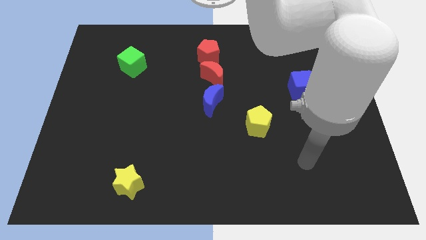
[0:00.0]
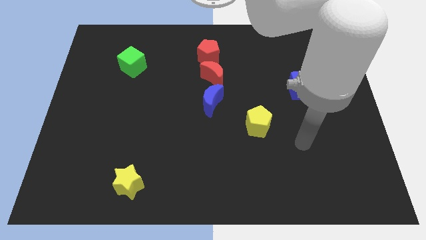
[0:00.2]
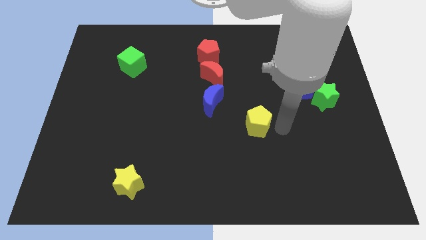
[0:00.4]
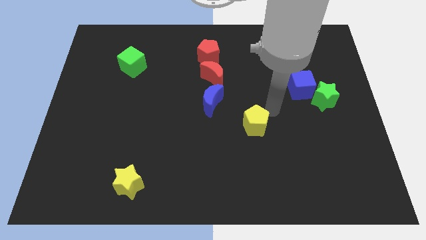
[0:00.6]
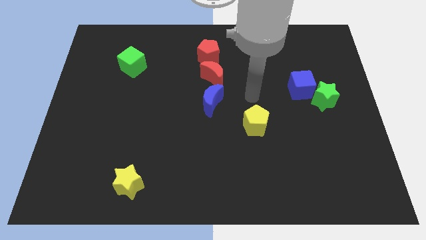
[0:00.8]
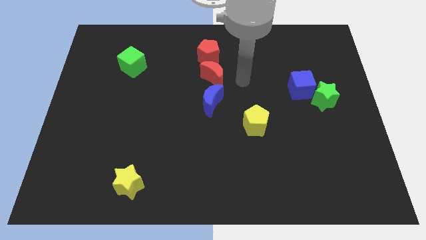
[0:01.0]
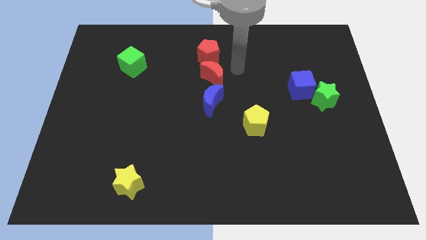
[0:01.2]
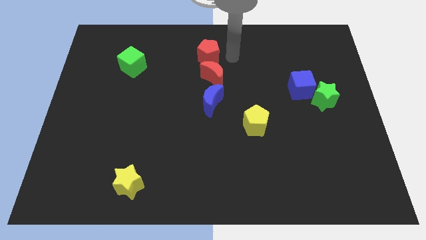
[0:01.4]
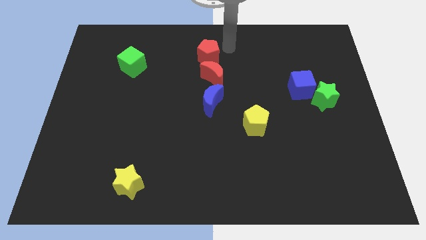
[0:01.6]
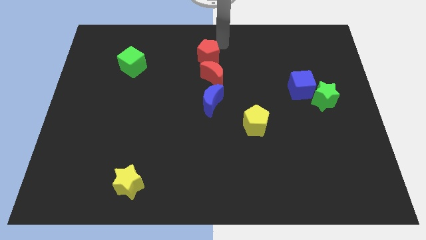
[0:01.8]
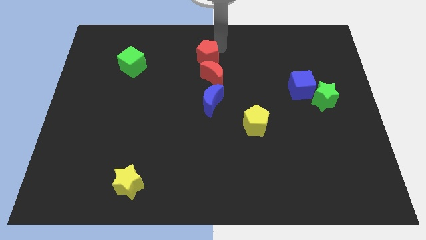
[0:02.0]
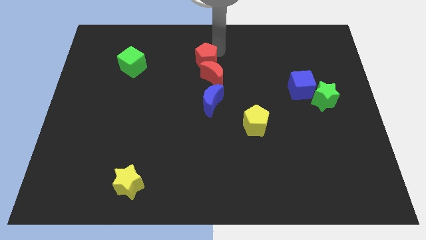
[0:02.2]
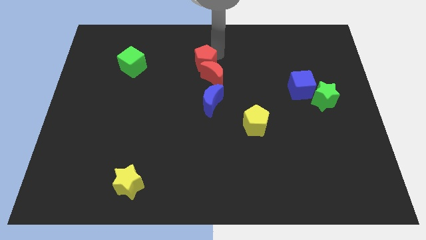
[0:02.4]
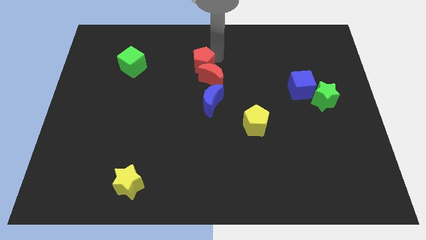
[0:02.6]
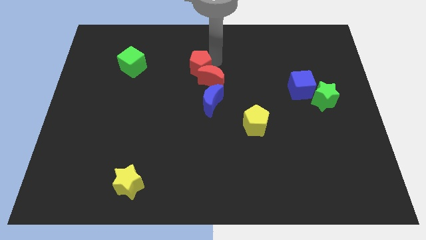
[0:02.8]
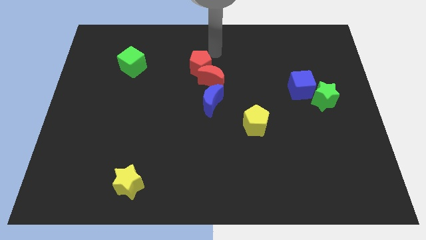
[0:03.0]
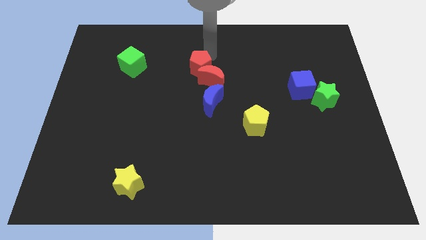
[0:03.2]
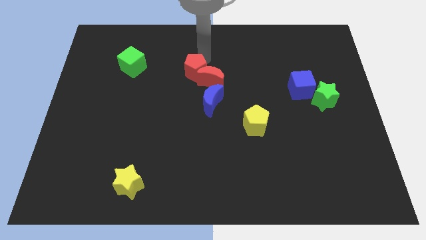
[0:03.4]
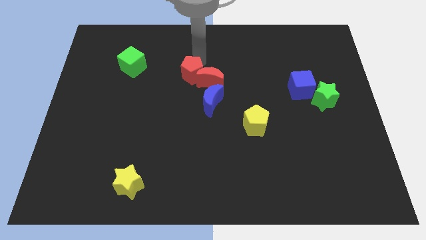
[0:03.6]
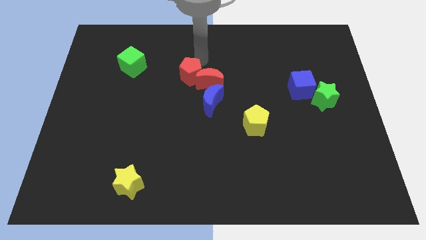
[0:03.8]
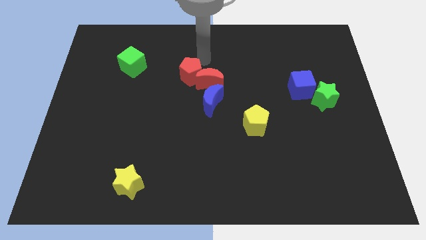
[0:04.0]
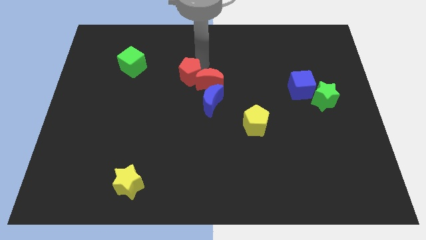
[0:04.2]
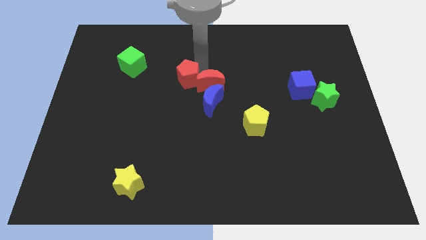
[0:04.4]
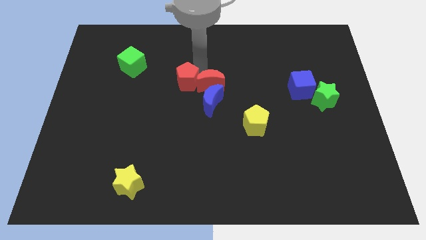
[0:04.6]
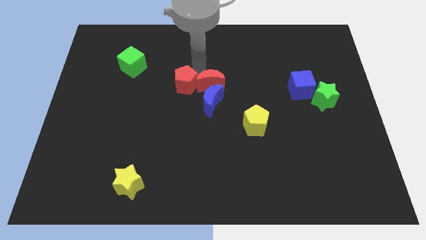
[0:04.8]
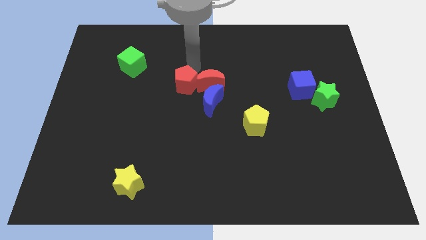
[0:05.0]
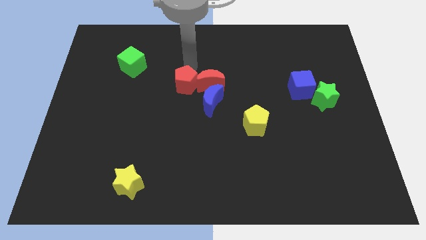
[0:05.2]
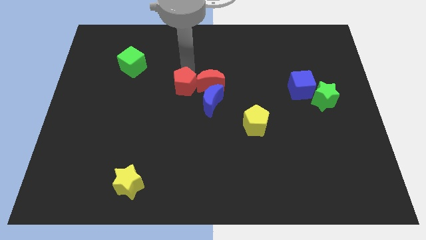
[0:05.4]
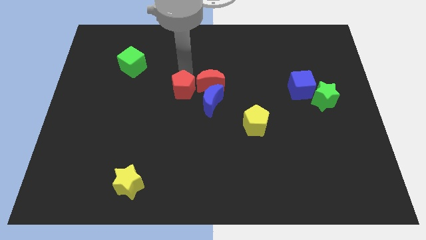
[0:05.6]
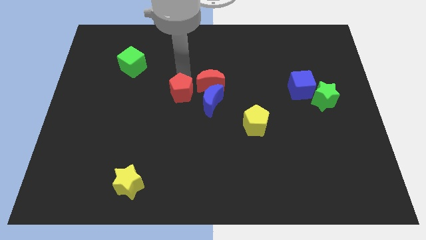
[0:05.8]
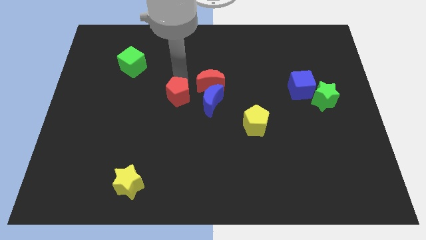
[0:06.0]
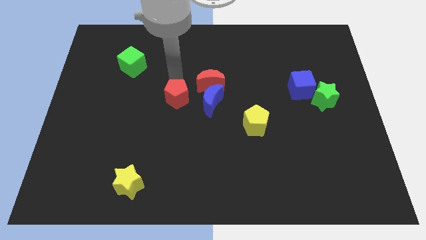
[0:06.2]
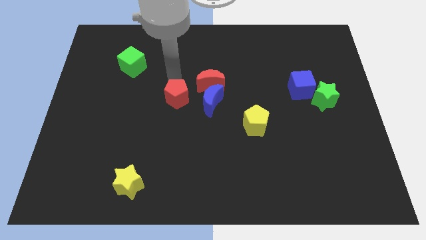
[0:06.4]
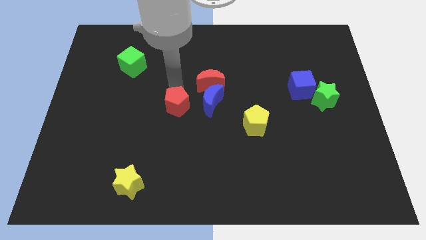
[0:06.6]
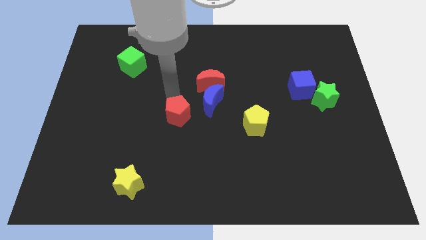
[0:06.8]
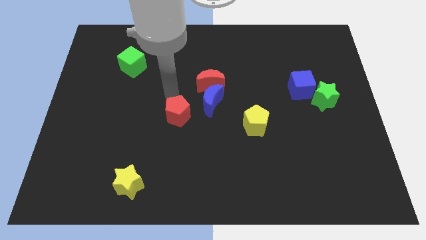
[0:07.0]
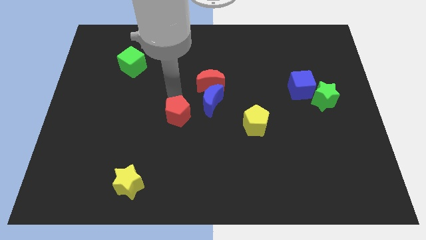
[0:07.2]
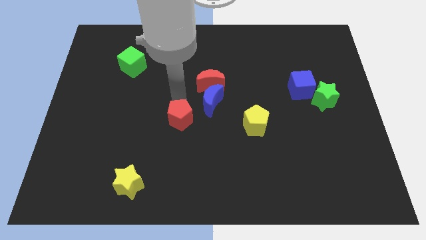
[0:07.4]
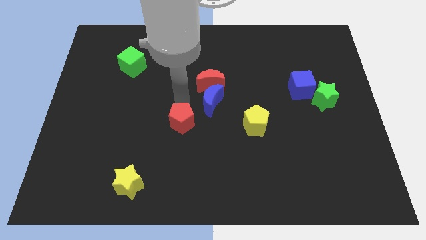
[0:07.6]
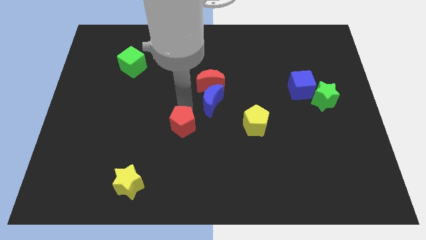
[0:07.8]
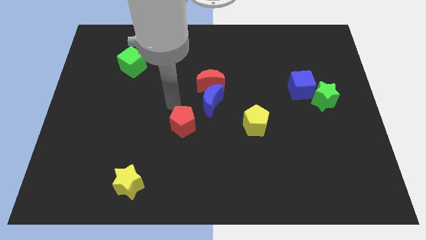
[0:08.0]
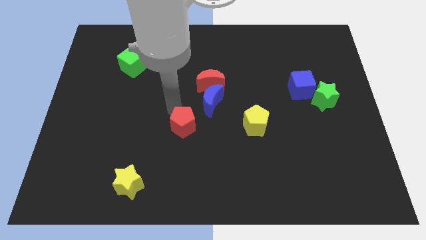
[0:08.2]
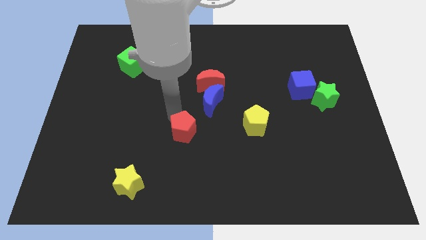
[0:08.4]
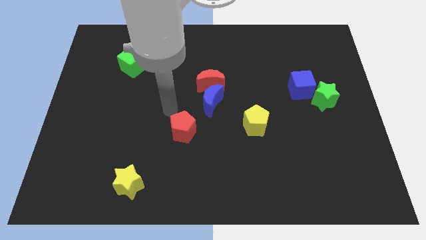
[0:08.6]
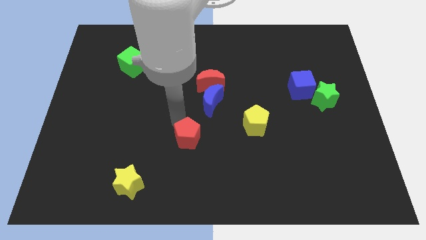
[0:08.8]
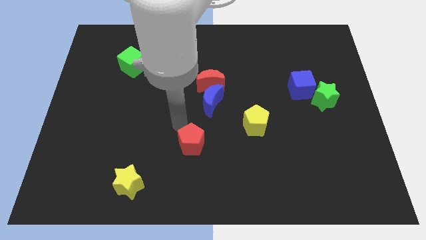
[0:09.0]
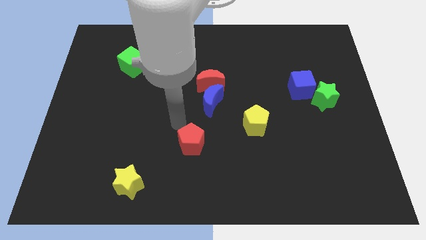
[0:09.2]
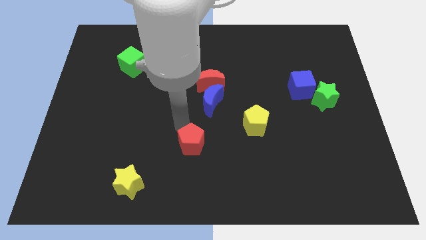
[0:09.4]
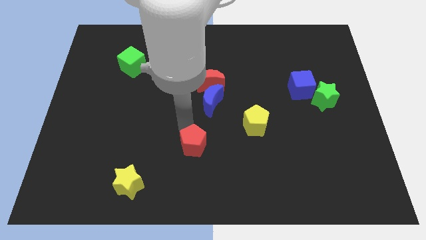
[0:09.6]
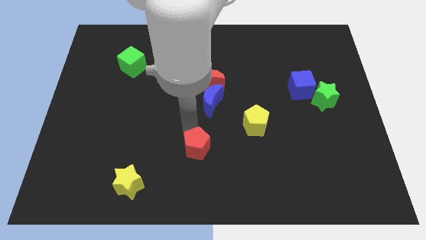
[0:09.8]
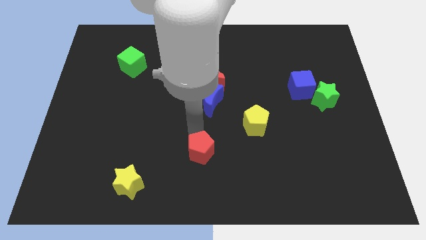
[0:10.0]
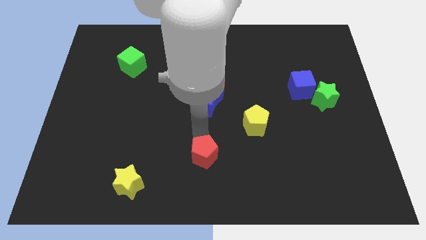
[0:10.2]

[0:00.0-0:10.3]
push the red pentagon to the bottom
